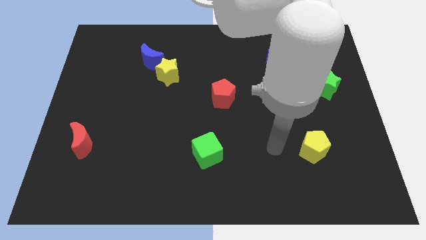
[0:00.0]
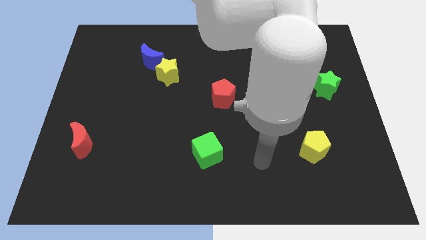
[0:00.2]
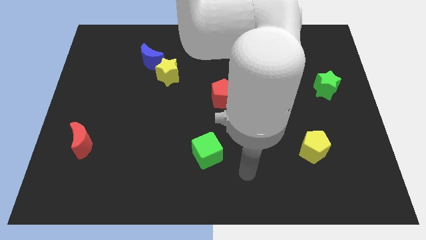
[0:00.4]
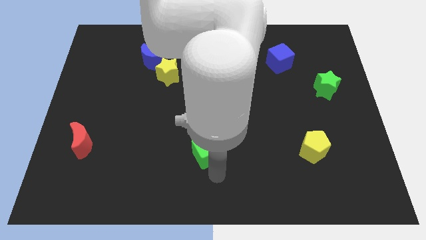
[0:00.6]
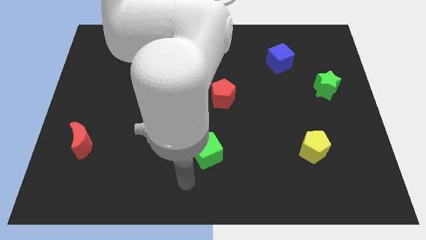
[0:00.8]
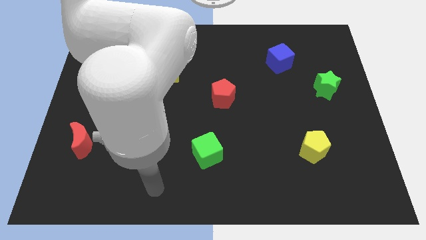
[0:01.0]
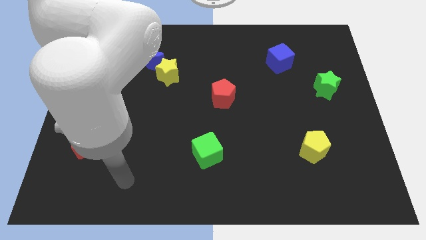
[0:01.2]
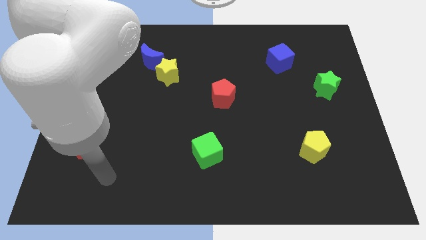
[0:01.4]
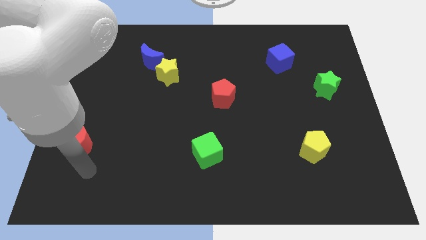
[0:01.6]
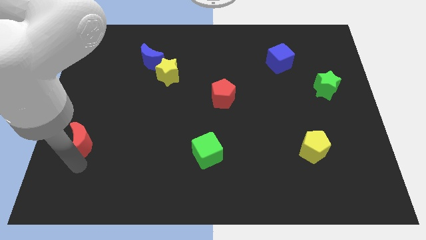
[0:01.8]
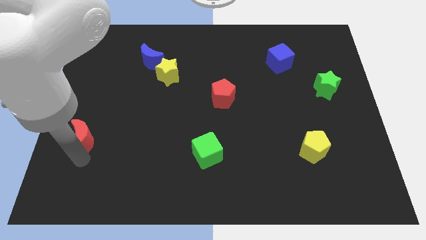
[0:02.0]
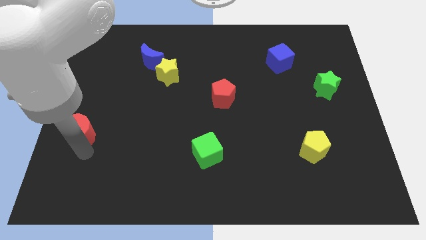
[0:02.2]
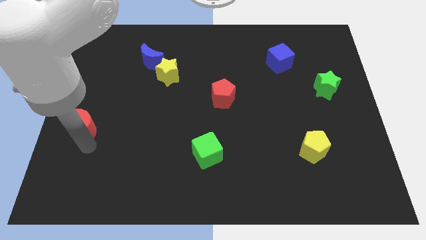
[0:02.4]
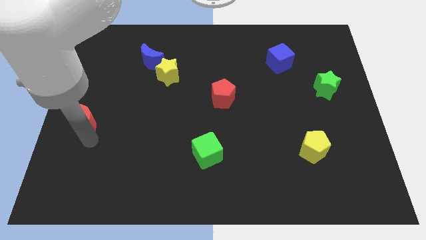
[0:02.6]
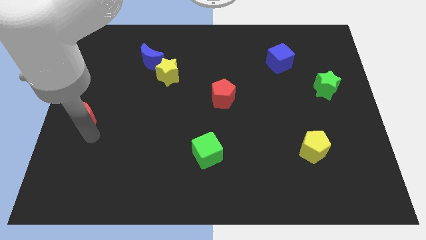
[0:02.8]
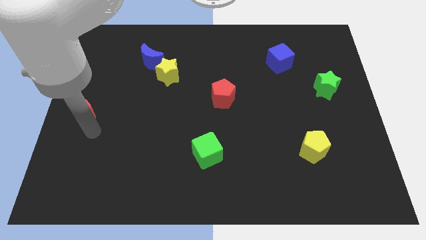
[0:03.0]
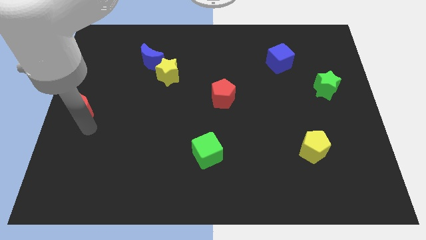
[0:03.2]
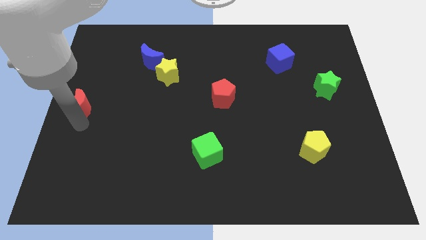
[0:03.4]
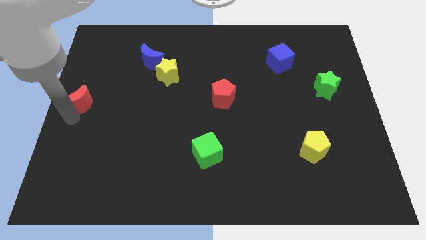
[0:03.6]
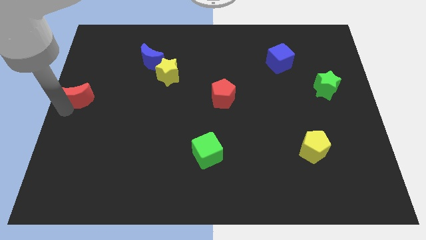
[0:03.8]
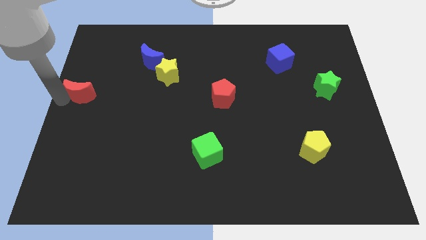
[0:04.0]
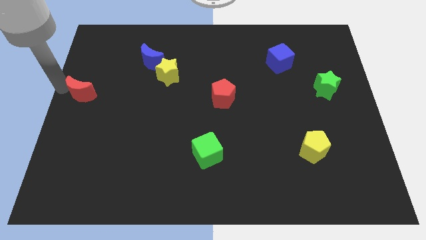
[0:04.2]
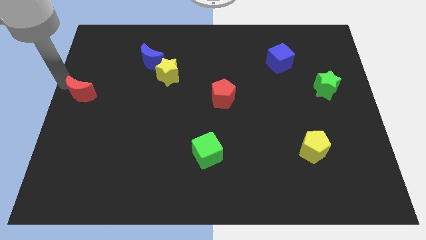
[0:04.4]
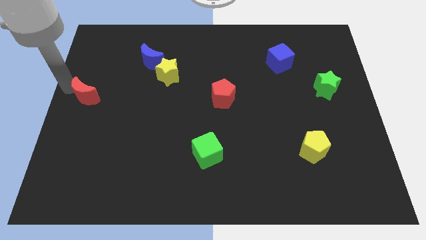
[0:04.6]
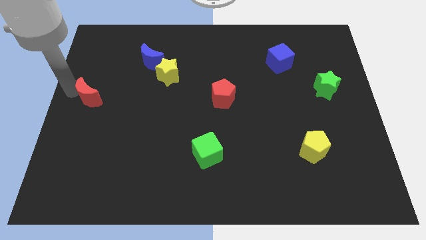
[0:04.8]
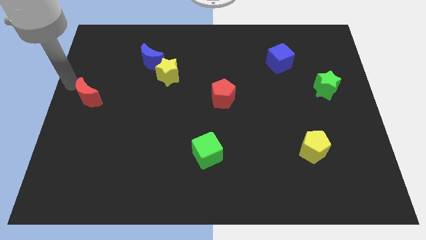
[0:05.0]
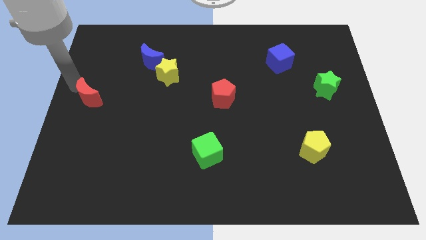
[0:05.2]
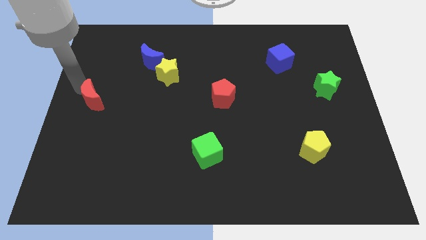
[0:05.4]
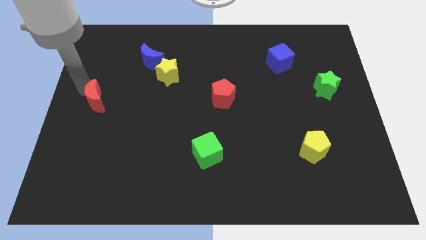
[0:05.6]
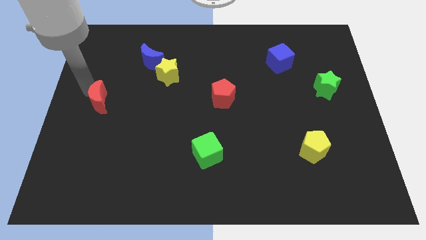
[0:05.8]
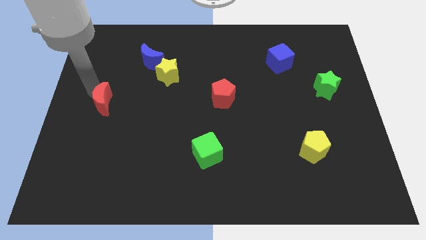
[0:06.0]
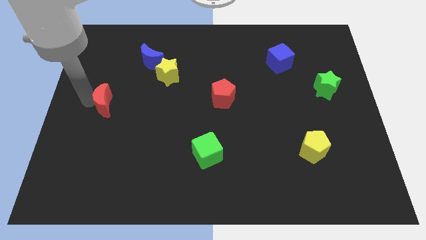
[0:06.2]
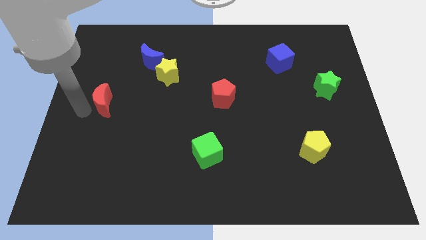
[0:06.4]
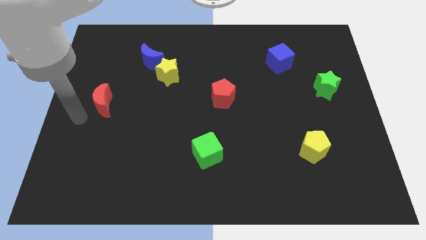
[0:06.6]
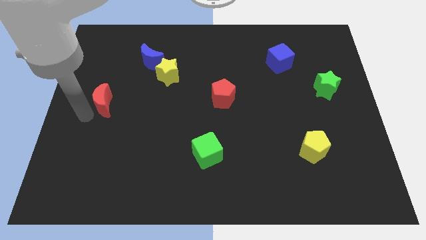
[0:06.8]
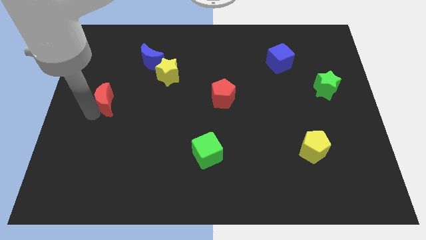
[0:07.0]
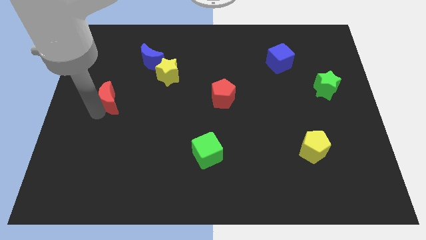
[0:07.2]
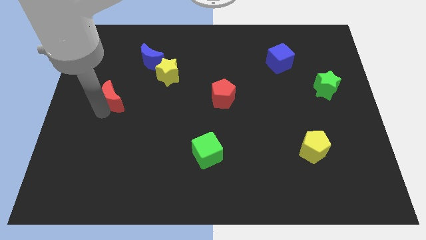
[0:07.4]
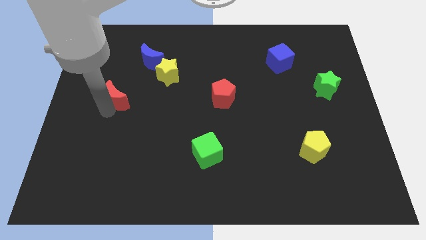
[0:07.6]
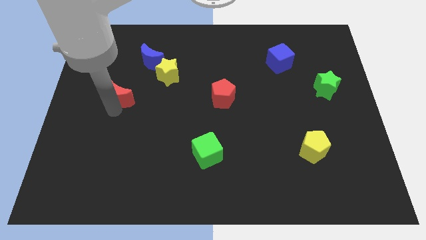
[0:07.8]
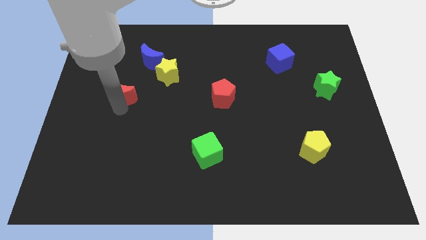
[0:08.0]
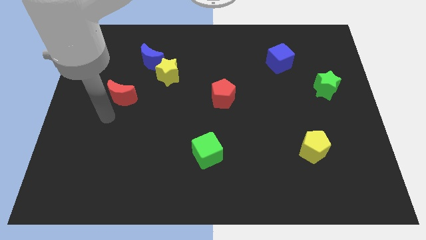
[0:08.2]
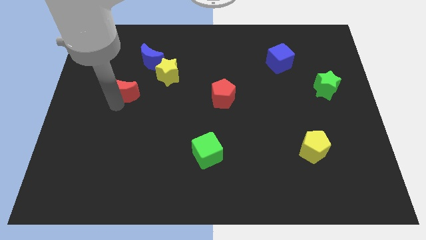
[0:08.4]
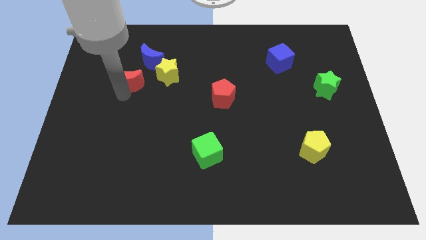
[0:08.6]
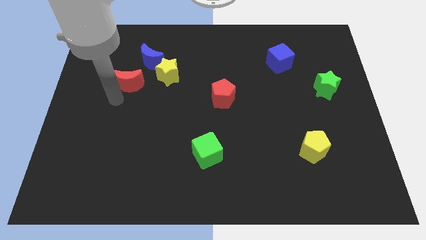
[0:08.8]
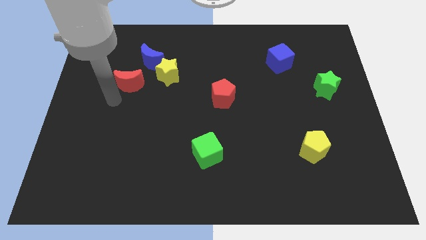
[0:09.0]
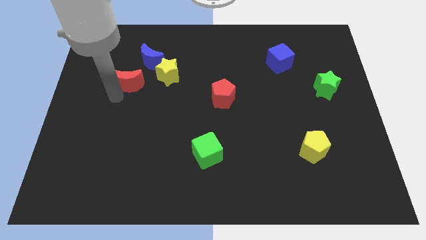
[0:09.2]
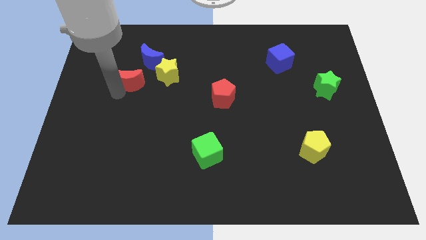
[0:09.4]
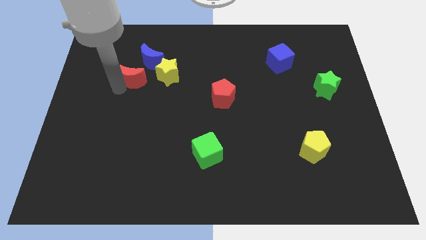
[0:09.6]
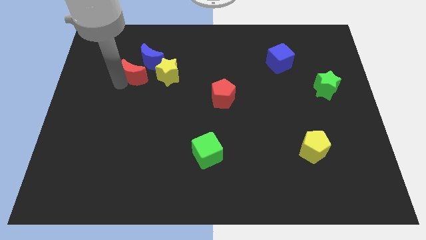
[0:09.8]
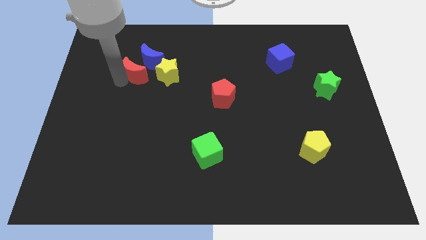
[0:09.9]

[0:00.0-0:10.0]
slide the red moon next to the blue moon

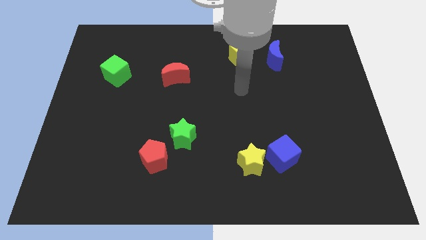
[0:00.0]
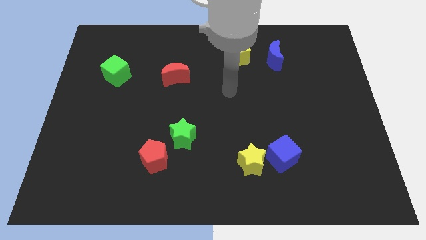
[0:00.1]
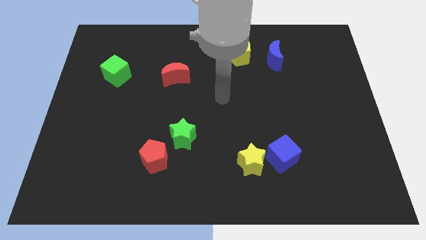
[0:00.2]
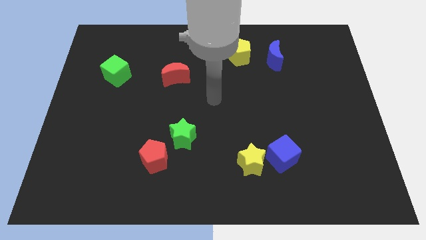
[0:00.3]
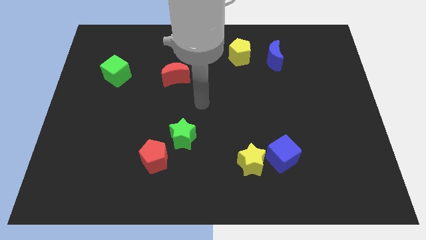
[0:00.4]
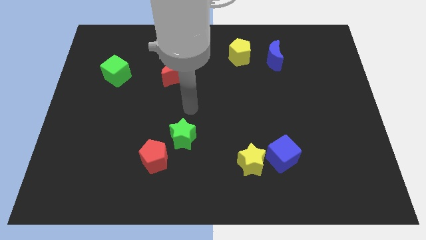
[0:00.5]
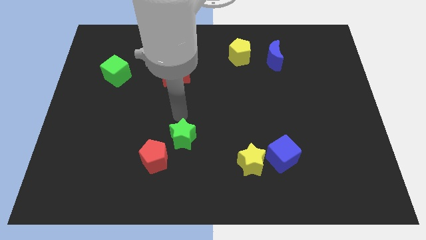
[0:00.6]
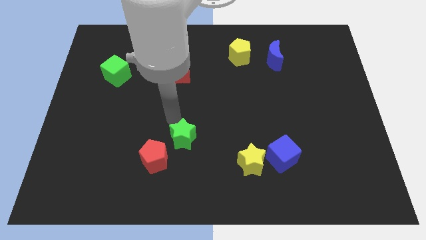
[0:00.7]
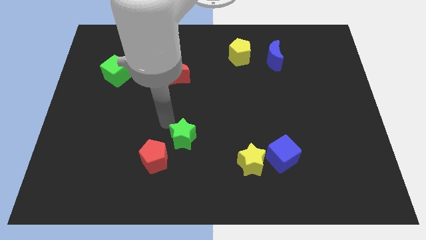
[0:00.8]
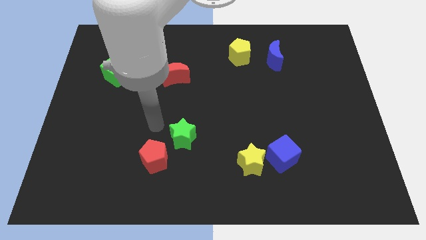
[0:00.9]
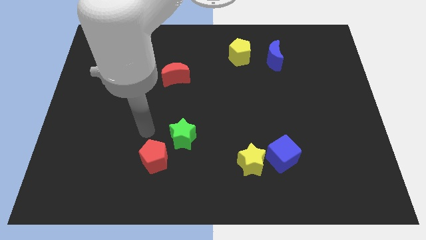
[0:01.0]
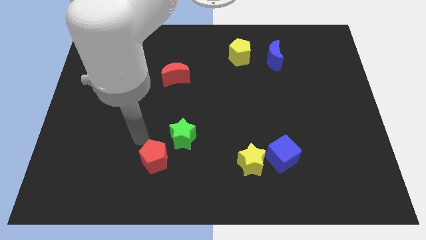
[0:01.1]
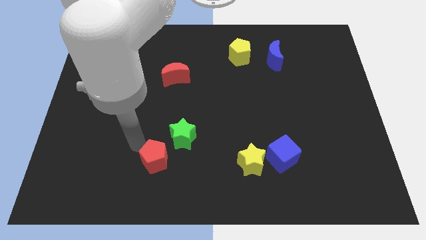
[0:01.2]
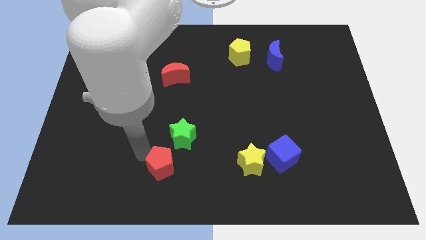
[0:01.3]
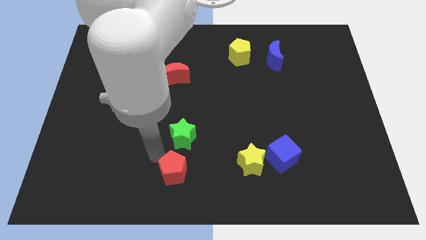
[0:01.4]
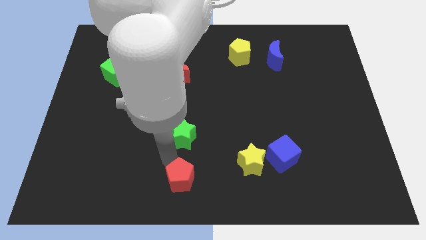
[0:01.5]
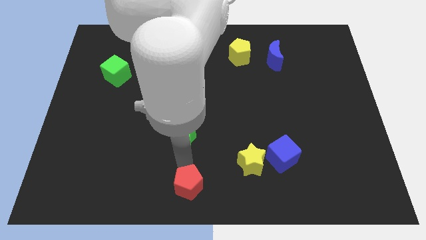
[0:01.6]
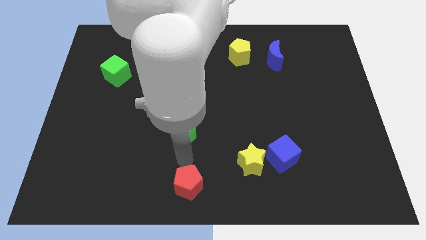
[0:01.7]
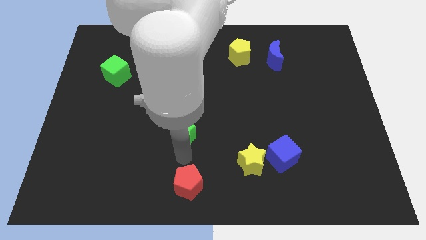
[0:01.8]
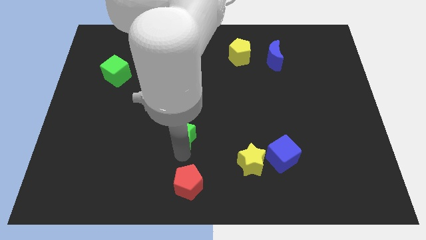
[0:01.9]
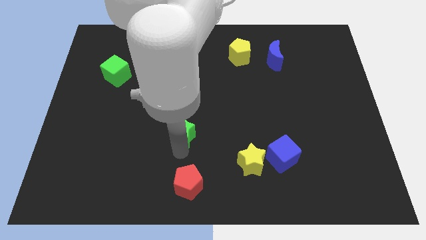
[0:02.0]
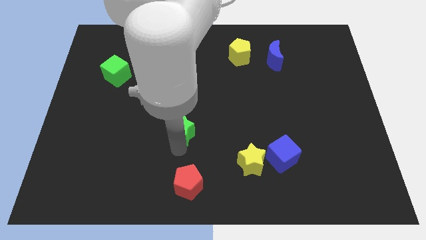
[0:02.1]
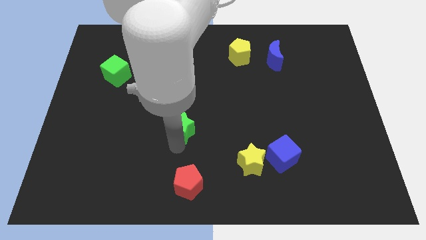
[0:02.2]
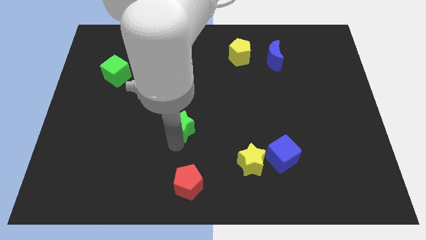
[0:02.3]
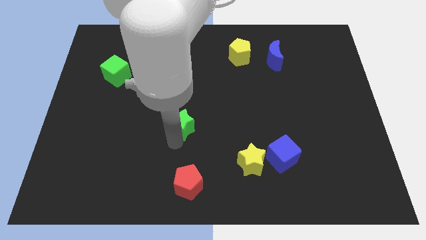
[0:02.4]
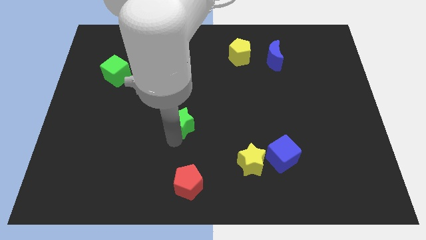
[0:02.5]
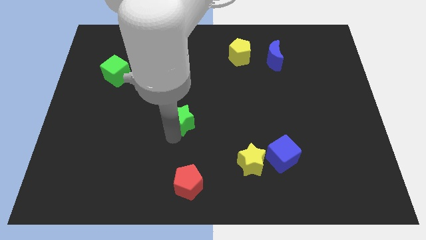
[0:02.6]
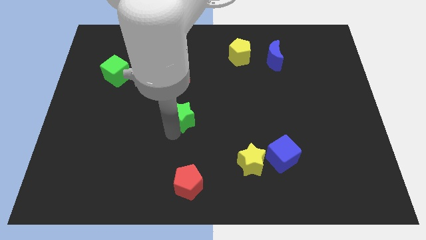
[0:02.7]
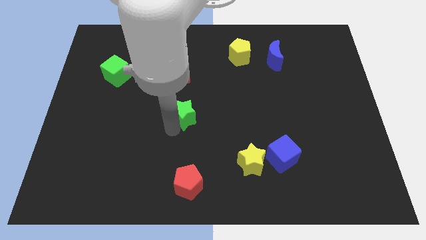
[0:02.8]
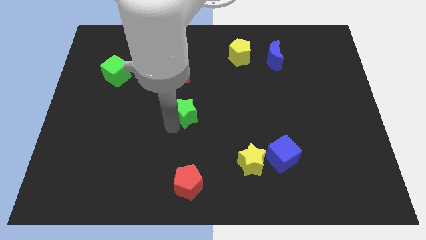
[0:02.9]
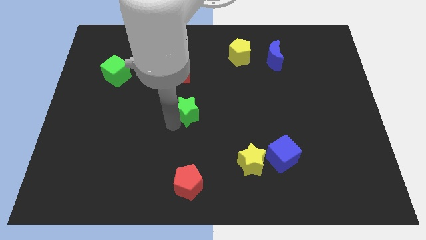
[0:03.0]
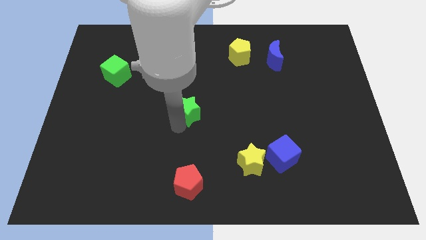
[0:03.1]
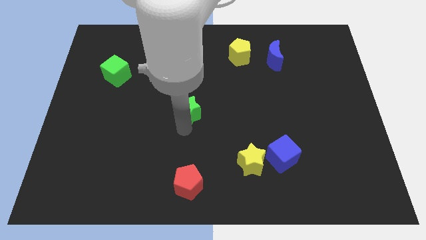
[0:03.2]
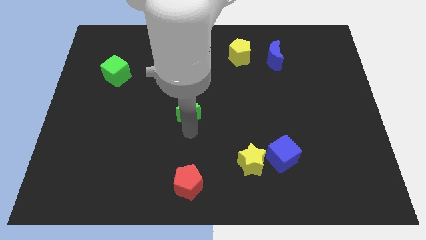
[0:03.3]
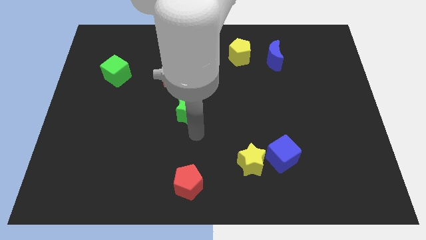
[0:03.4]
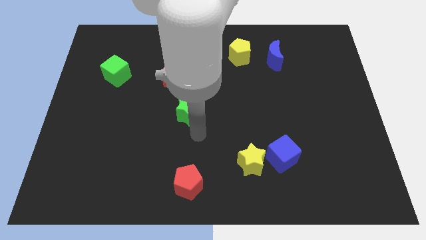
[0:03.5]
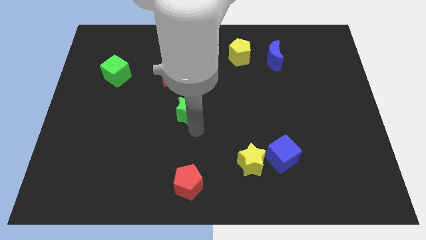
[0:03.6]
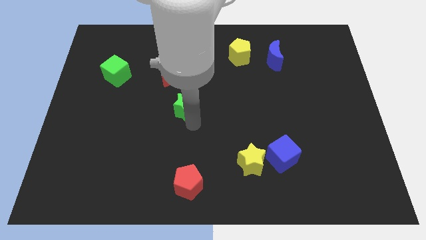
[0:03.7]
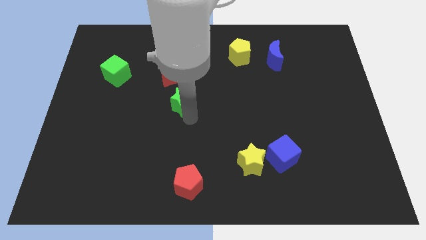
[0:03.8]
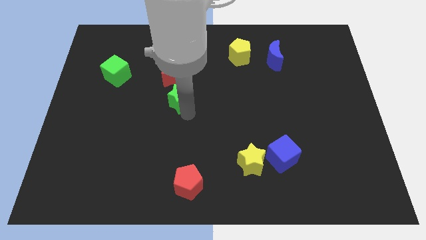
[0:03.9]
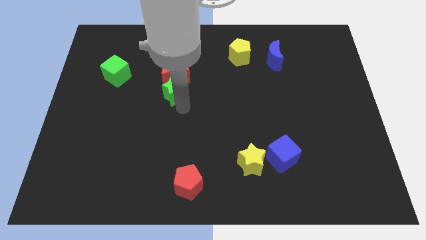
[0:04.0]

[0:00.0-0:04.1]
put the green star towards the red moon
